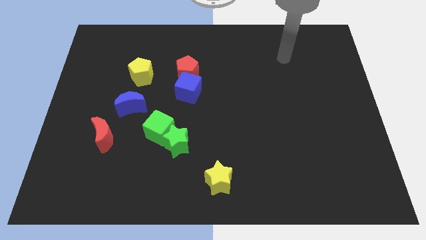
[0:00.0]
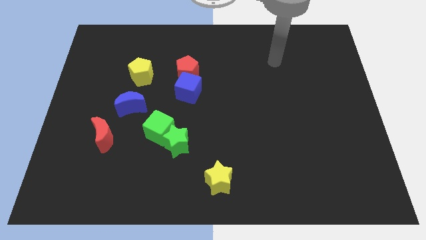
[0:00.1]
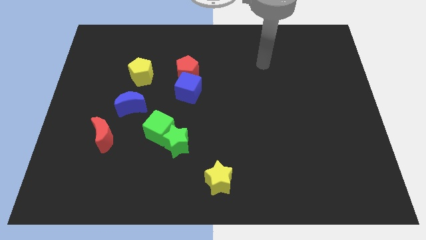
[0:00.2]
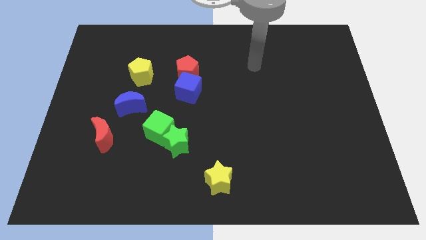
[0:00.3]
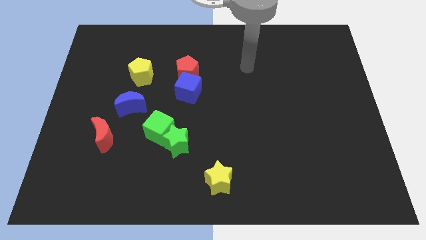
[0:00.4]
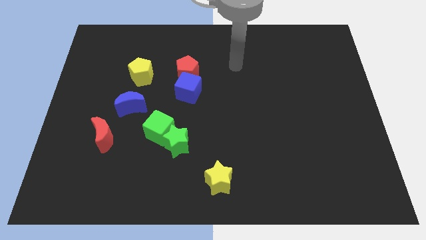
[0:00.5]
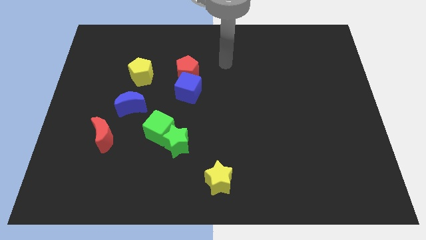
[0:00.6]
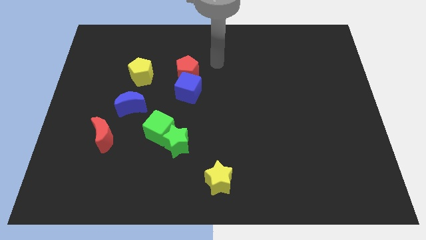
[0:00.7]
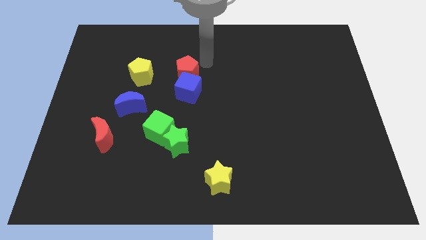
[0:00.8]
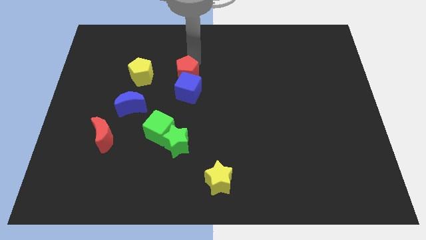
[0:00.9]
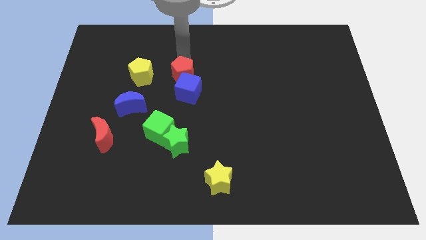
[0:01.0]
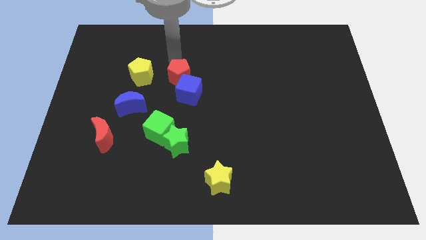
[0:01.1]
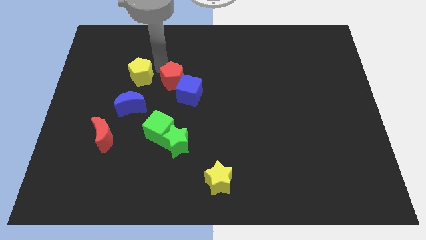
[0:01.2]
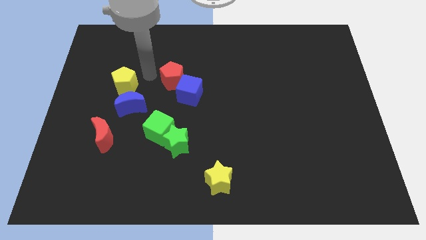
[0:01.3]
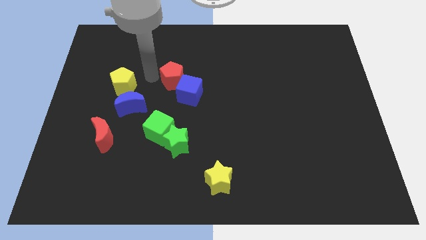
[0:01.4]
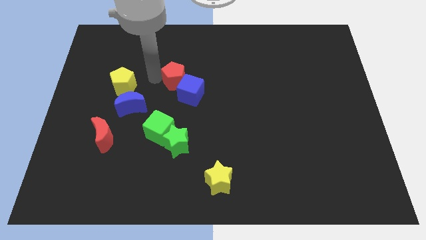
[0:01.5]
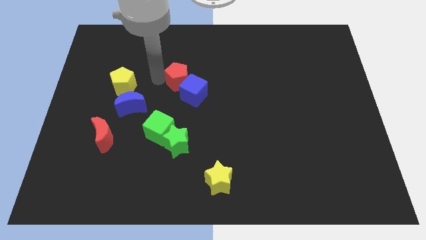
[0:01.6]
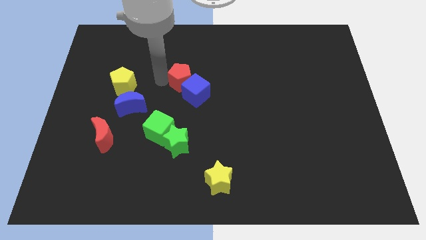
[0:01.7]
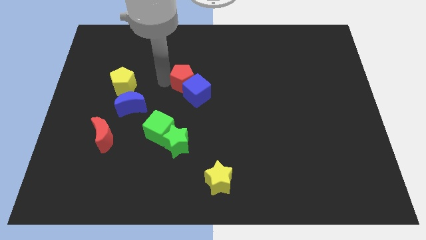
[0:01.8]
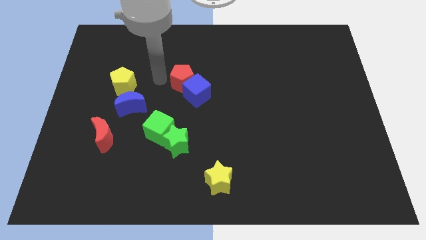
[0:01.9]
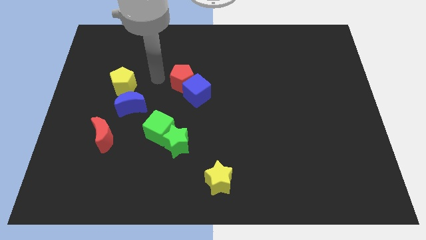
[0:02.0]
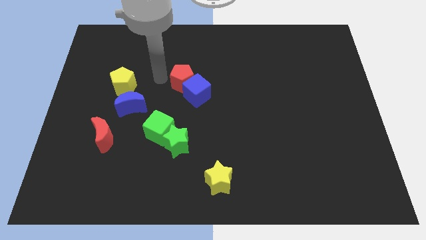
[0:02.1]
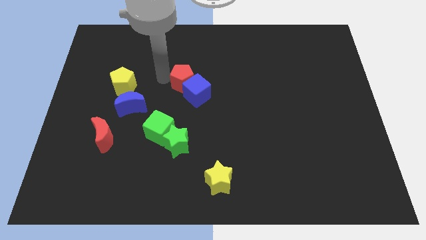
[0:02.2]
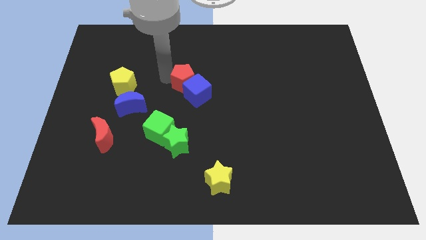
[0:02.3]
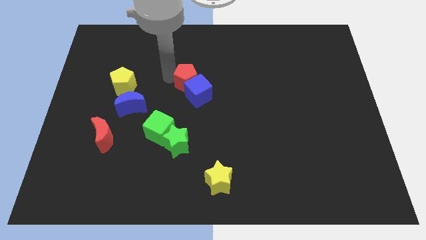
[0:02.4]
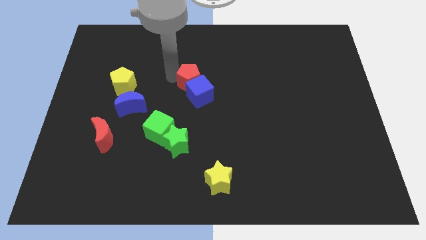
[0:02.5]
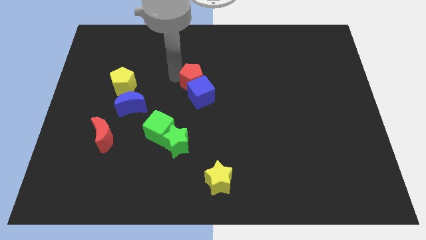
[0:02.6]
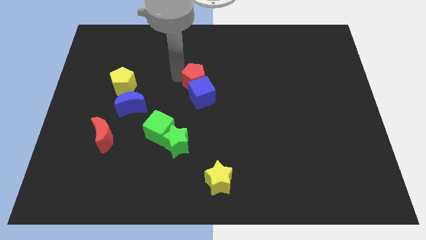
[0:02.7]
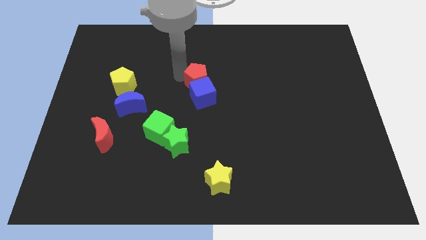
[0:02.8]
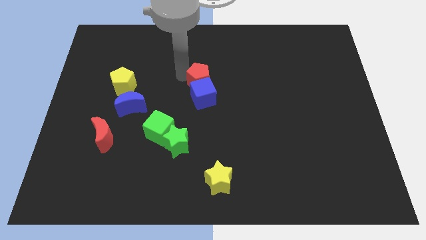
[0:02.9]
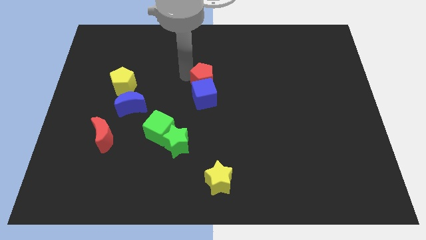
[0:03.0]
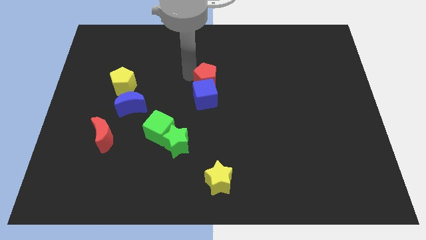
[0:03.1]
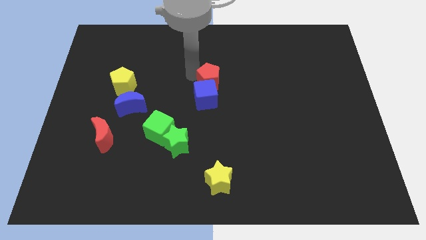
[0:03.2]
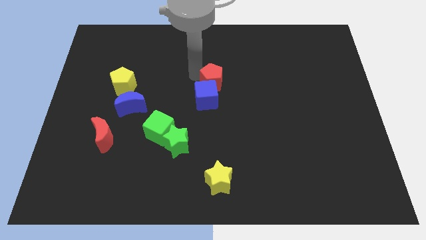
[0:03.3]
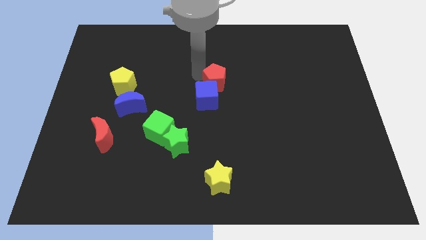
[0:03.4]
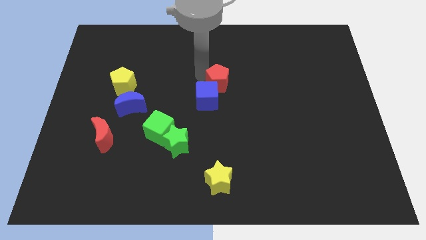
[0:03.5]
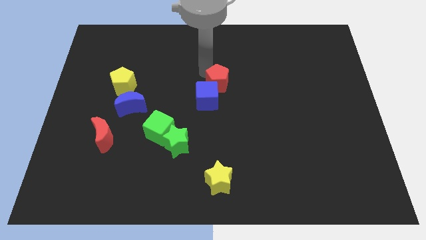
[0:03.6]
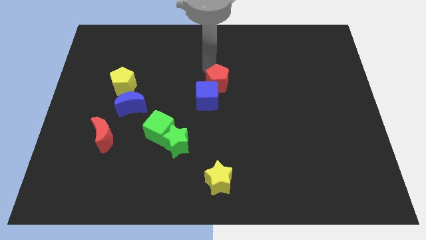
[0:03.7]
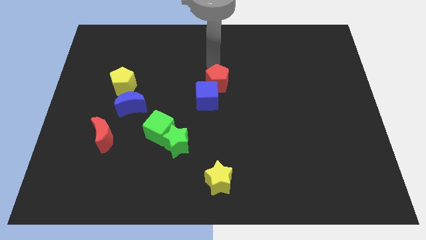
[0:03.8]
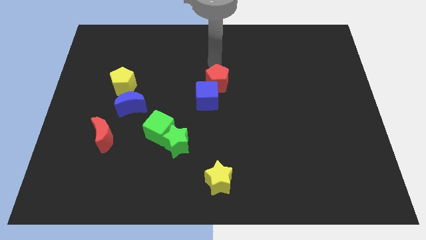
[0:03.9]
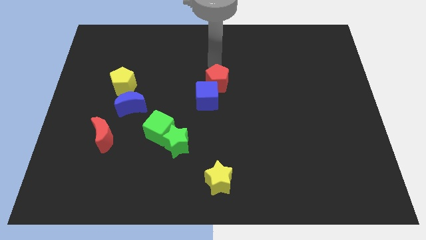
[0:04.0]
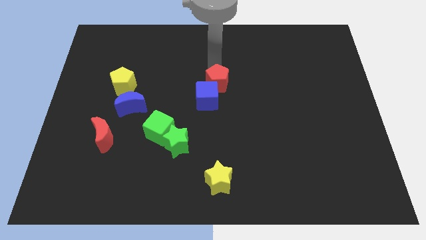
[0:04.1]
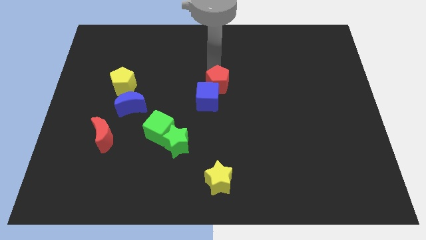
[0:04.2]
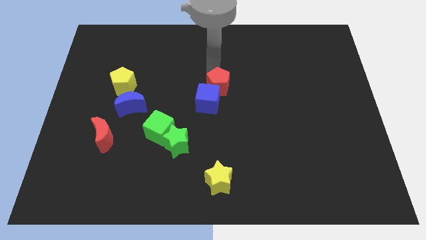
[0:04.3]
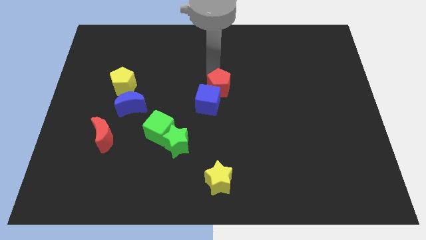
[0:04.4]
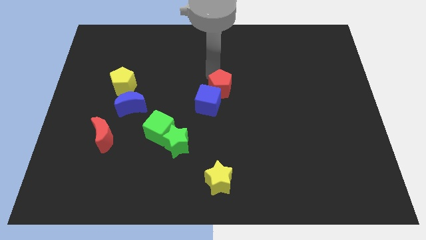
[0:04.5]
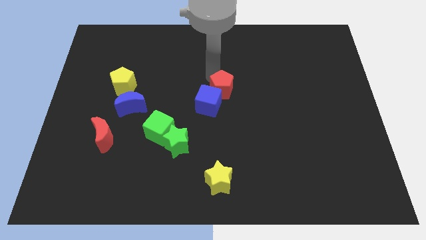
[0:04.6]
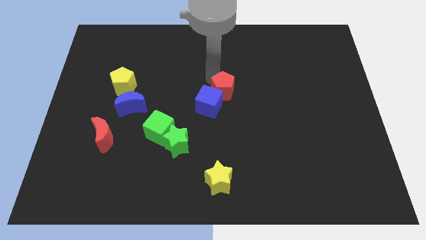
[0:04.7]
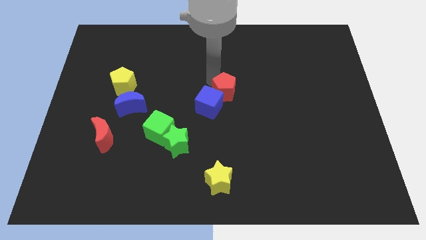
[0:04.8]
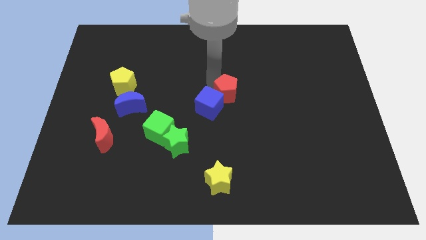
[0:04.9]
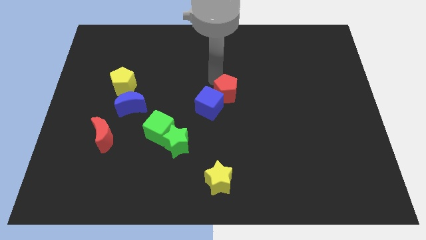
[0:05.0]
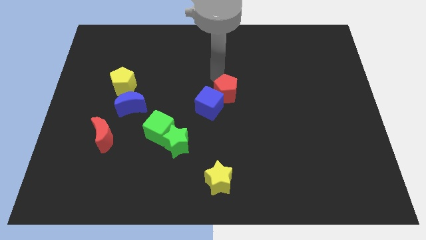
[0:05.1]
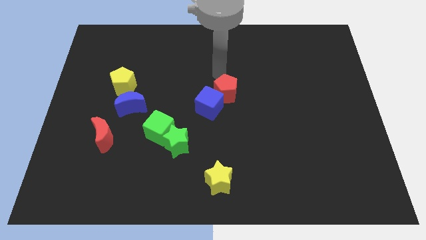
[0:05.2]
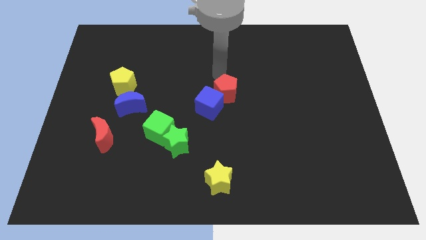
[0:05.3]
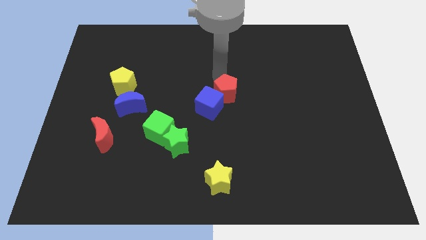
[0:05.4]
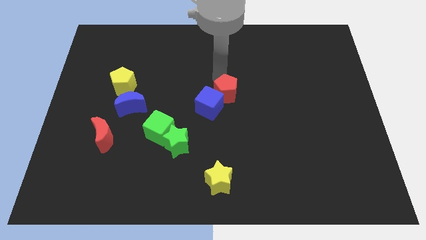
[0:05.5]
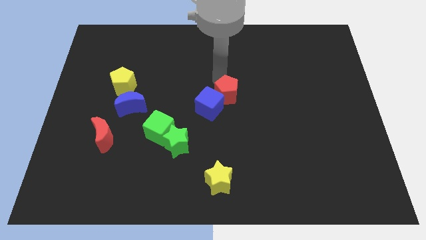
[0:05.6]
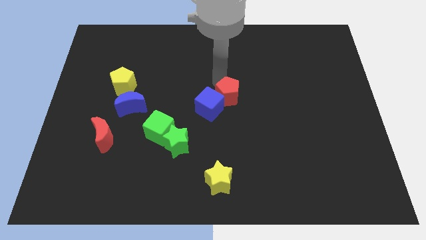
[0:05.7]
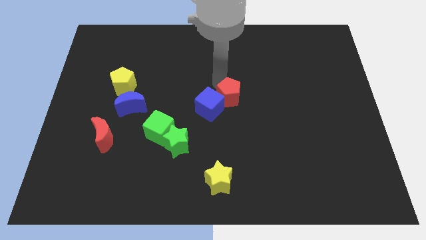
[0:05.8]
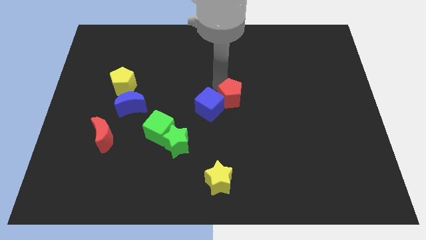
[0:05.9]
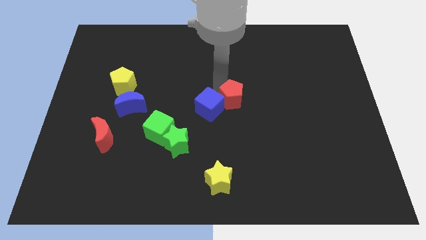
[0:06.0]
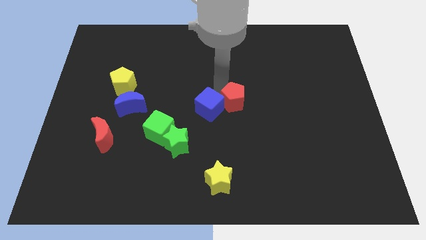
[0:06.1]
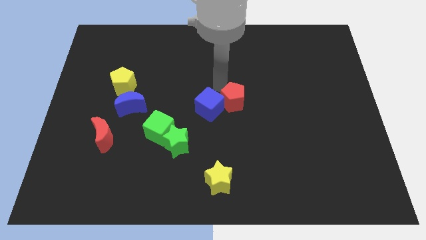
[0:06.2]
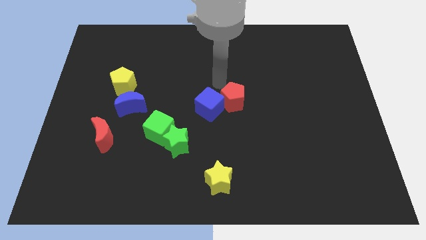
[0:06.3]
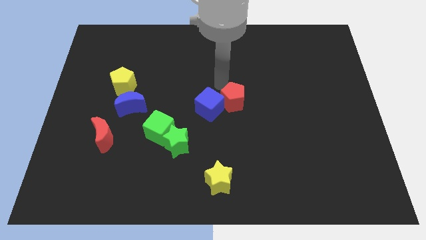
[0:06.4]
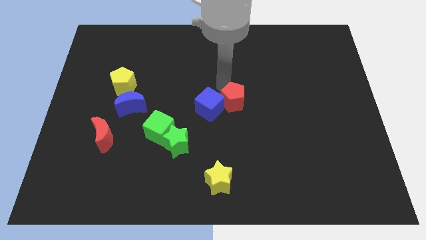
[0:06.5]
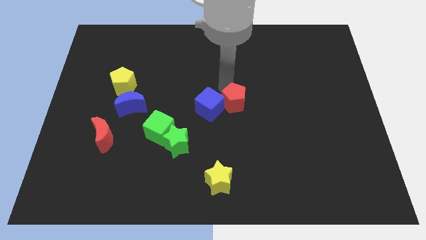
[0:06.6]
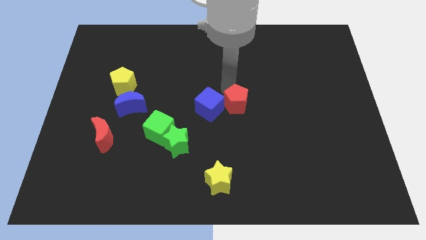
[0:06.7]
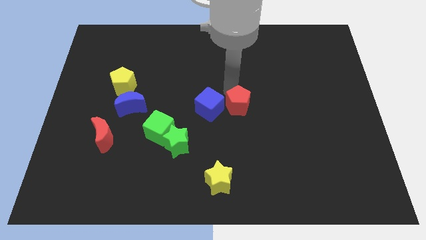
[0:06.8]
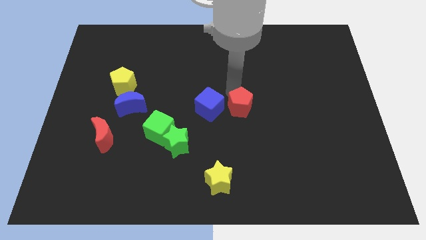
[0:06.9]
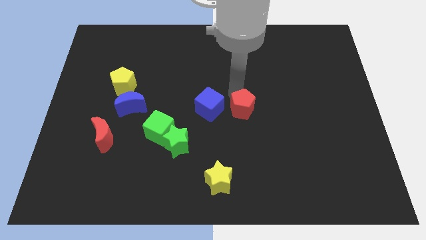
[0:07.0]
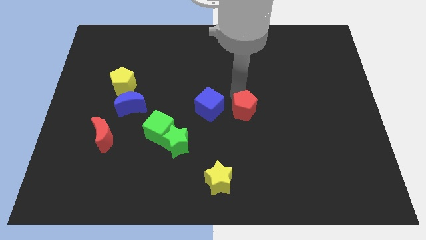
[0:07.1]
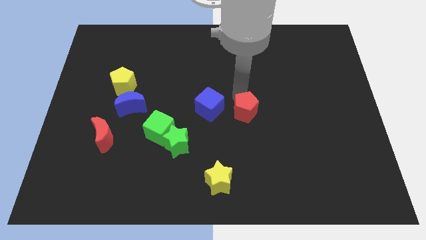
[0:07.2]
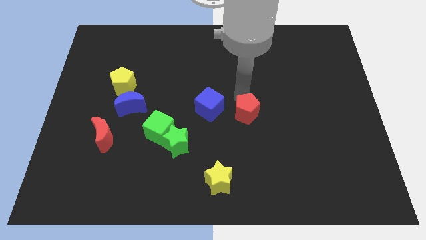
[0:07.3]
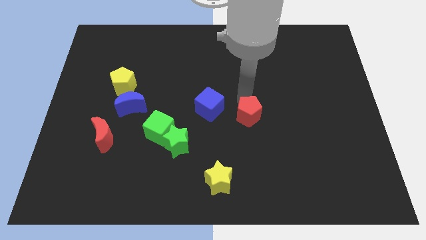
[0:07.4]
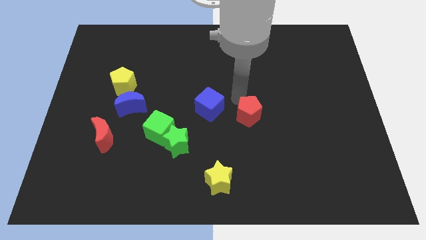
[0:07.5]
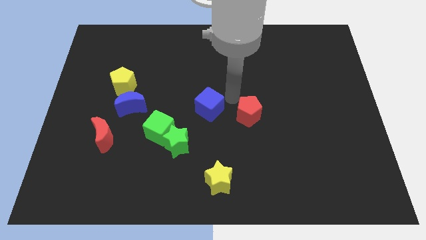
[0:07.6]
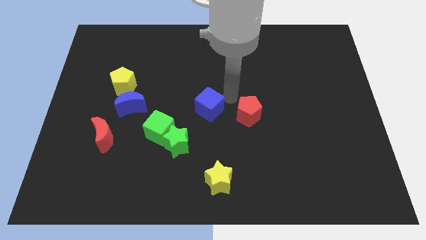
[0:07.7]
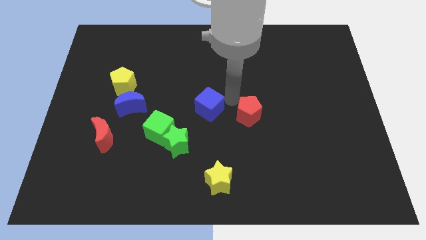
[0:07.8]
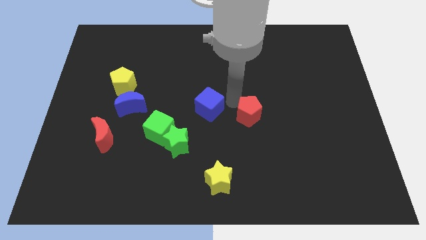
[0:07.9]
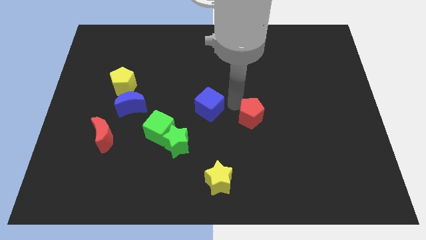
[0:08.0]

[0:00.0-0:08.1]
move the red pentagon down and then to the right
